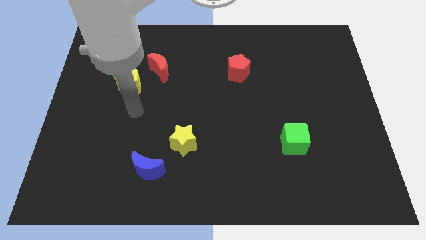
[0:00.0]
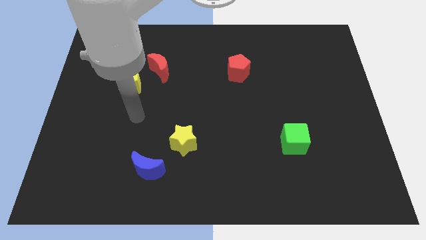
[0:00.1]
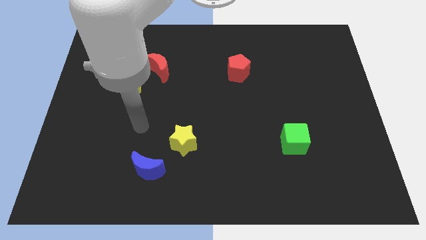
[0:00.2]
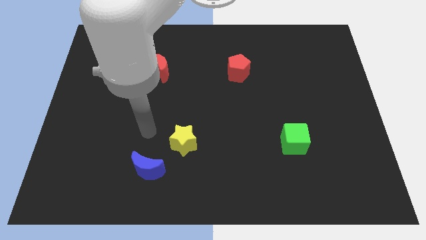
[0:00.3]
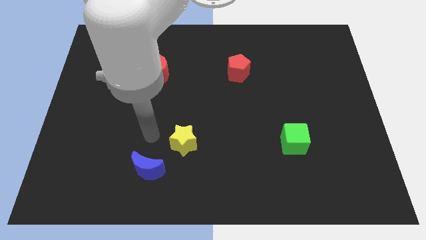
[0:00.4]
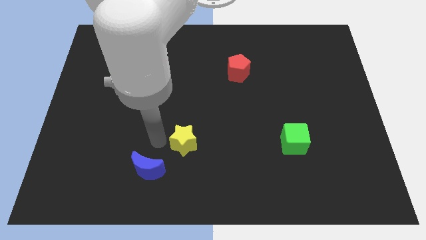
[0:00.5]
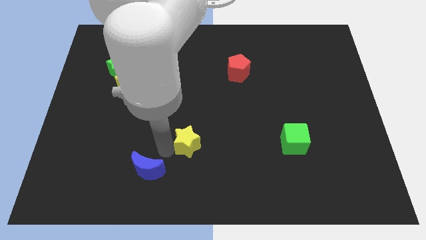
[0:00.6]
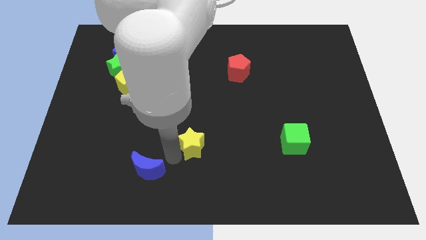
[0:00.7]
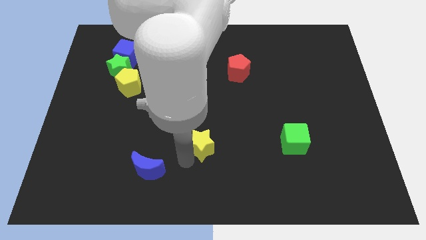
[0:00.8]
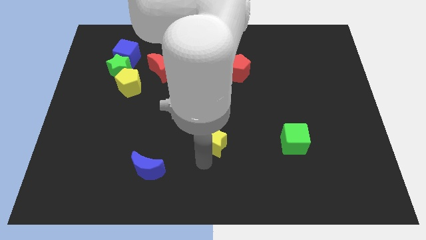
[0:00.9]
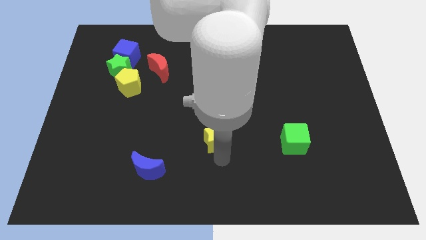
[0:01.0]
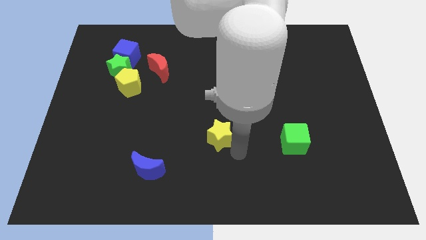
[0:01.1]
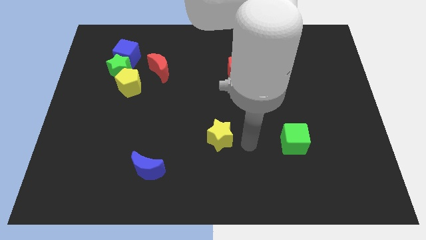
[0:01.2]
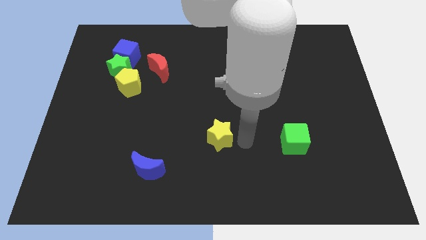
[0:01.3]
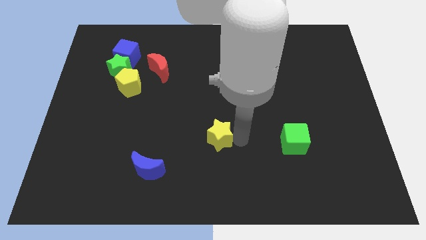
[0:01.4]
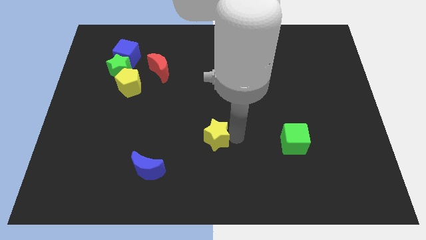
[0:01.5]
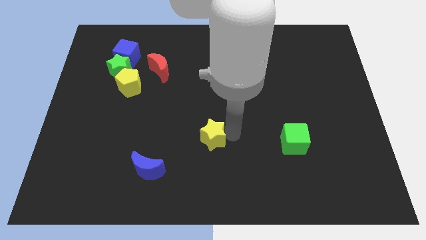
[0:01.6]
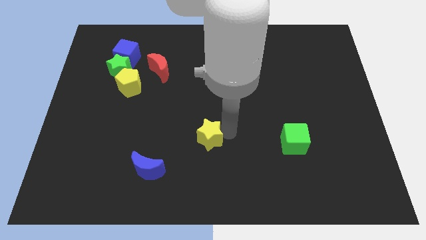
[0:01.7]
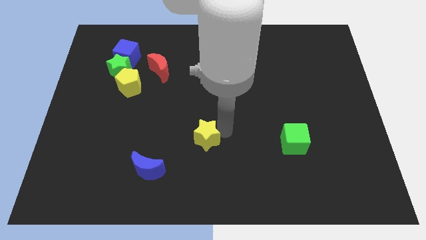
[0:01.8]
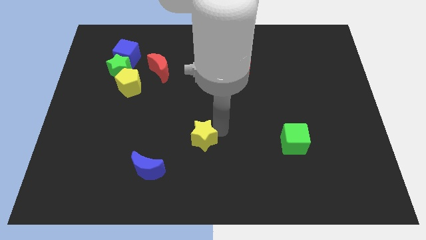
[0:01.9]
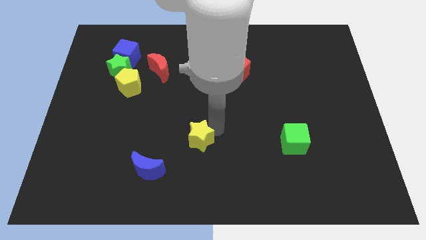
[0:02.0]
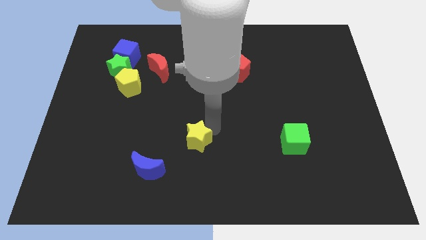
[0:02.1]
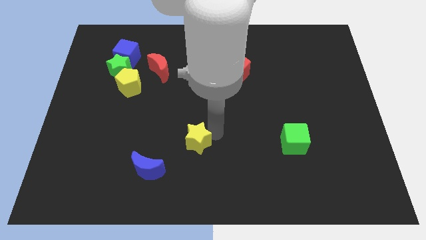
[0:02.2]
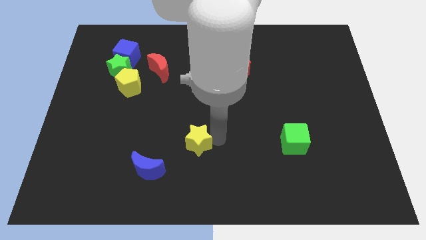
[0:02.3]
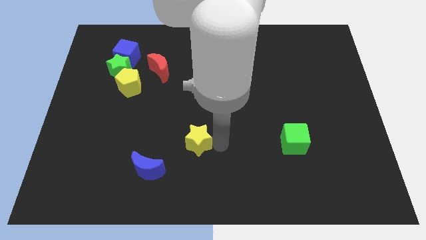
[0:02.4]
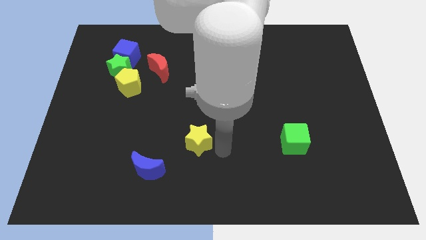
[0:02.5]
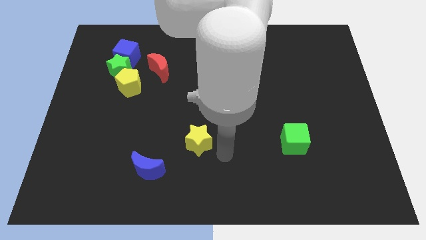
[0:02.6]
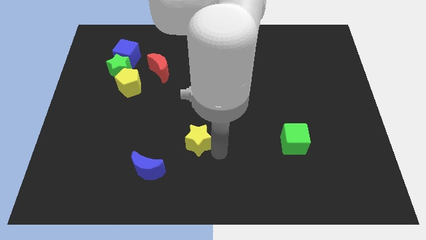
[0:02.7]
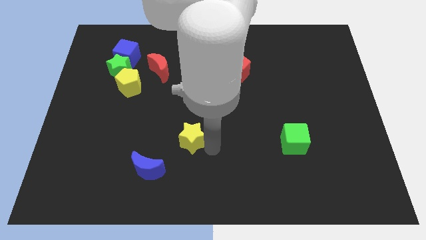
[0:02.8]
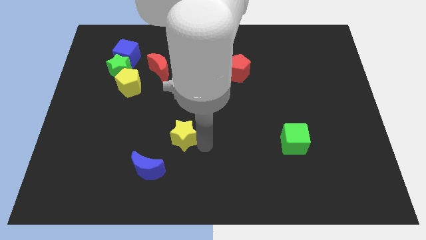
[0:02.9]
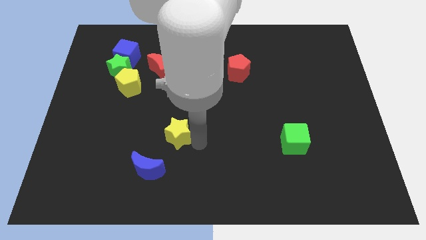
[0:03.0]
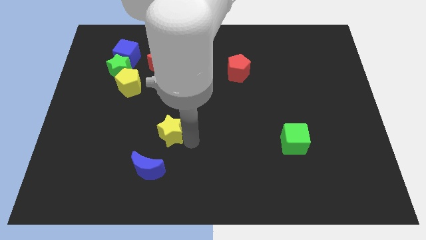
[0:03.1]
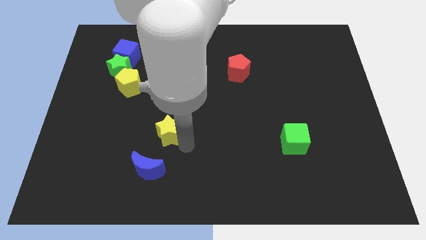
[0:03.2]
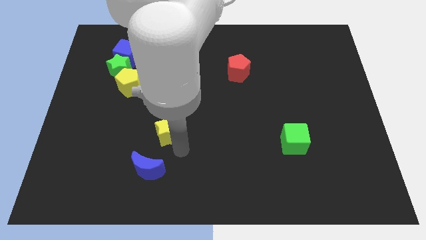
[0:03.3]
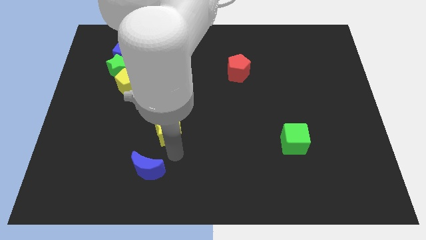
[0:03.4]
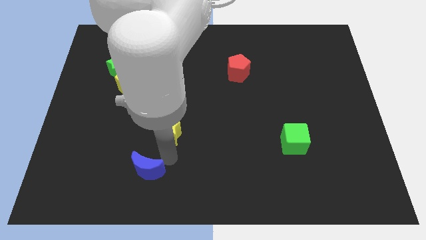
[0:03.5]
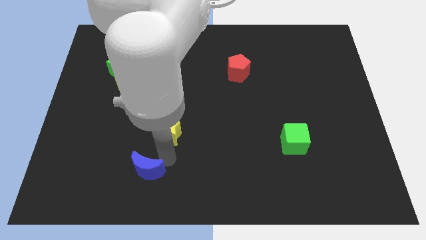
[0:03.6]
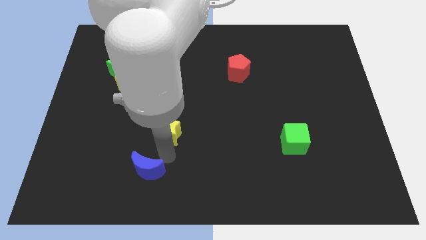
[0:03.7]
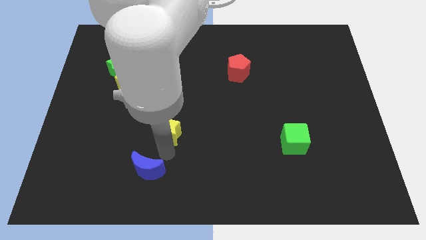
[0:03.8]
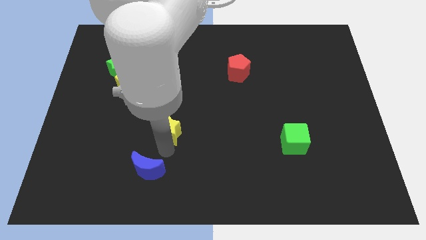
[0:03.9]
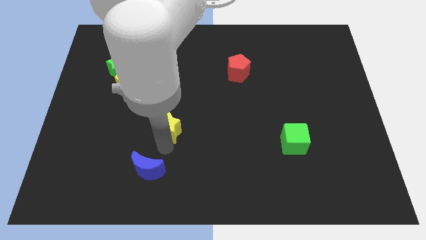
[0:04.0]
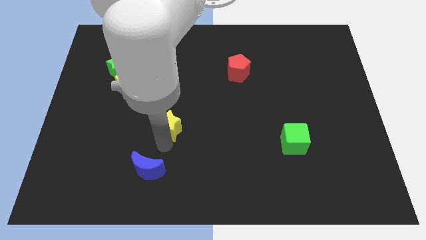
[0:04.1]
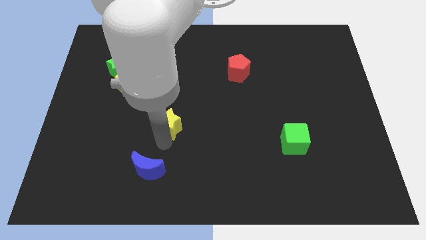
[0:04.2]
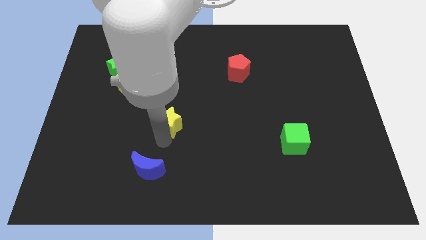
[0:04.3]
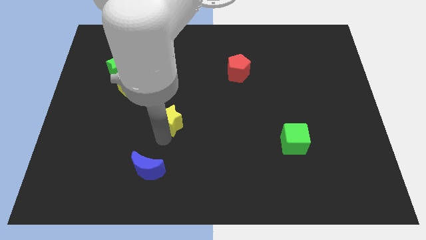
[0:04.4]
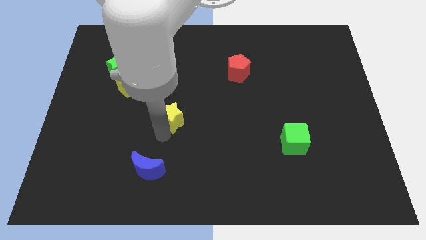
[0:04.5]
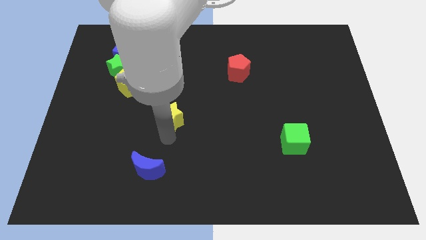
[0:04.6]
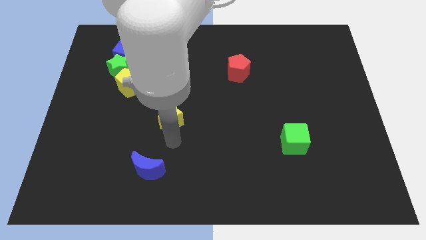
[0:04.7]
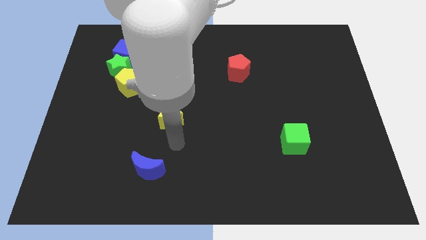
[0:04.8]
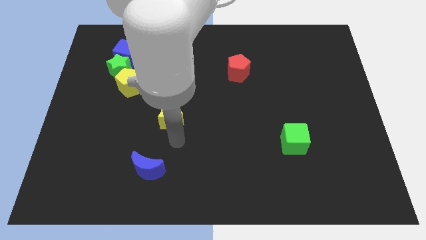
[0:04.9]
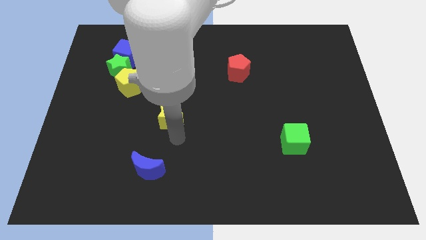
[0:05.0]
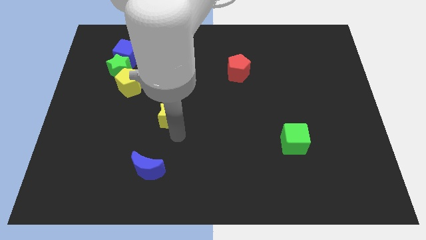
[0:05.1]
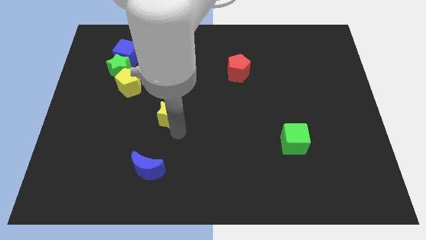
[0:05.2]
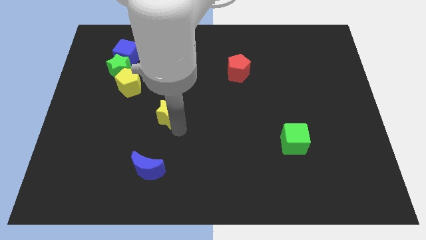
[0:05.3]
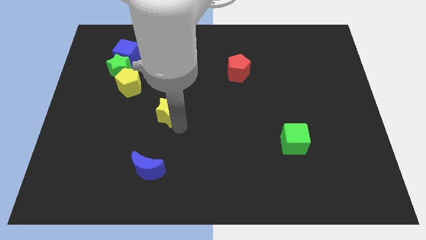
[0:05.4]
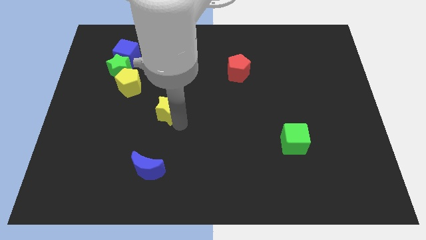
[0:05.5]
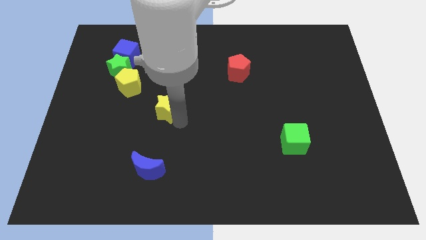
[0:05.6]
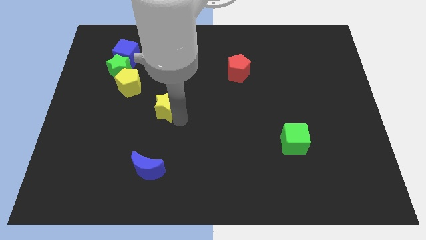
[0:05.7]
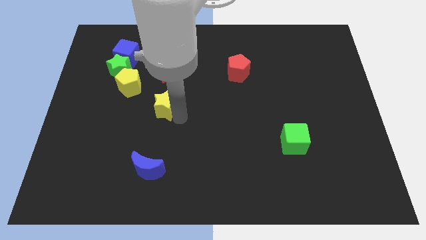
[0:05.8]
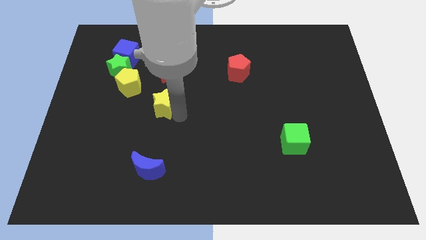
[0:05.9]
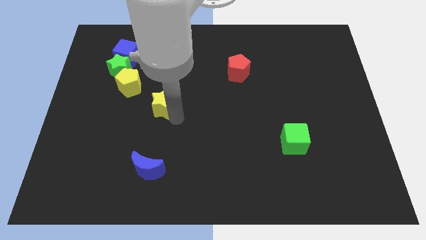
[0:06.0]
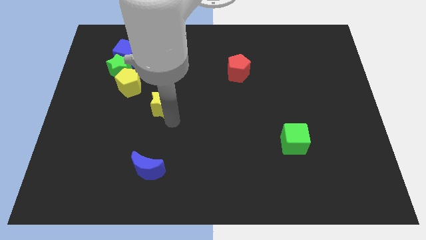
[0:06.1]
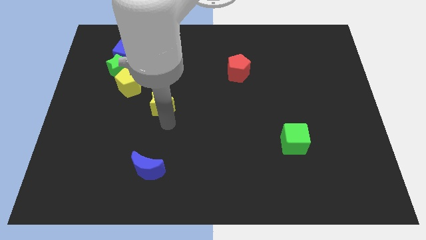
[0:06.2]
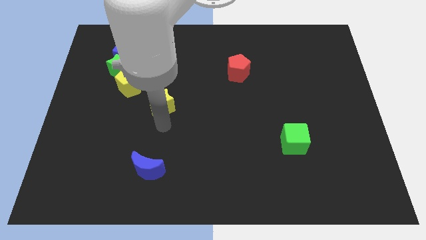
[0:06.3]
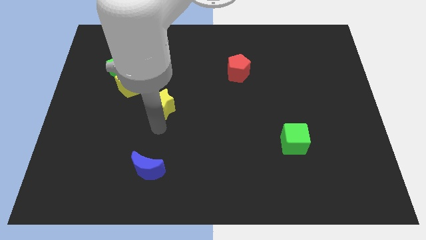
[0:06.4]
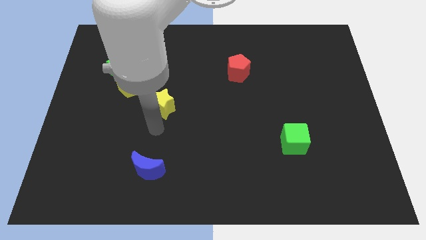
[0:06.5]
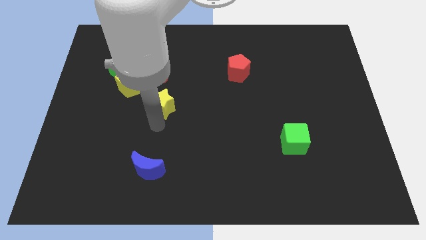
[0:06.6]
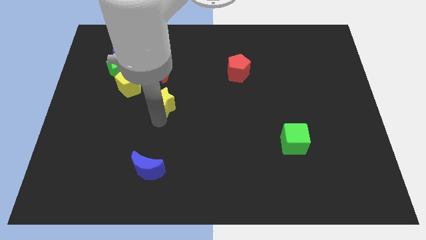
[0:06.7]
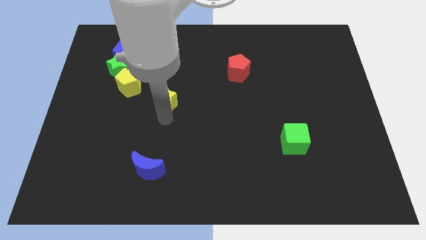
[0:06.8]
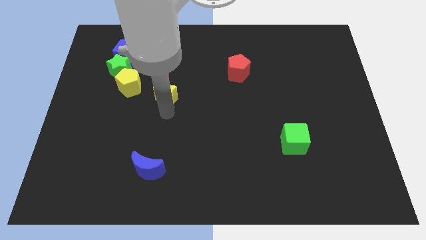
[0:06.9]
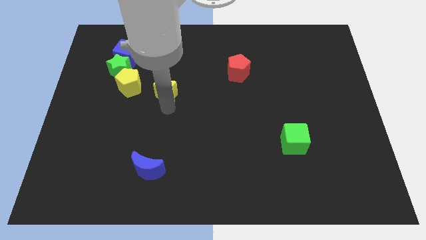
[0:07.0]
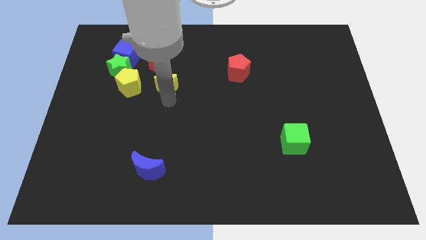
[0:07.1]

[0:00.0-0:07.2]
move the yellow star close to the red moon
